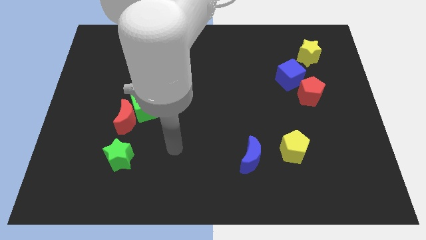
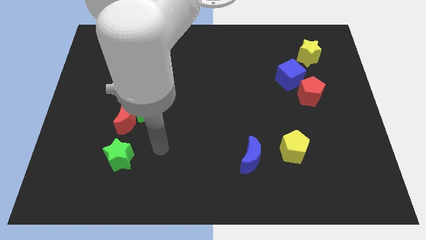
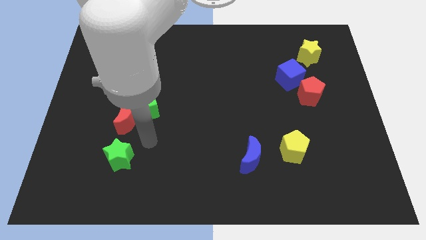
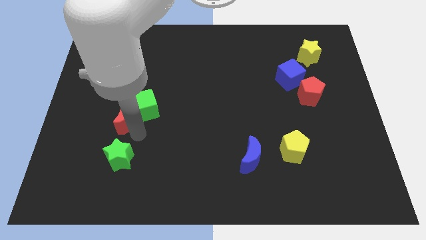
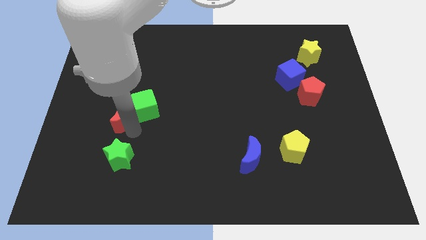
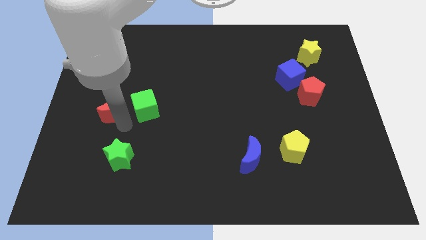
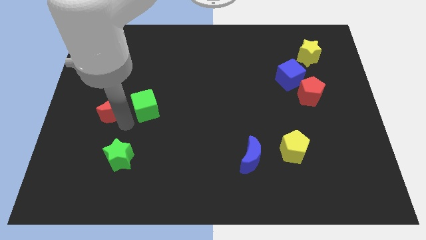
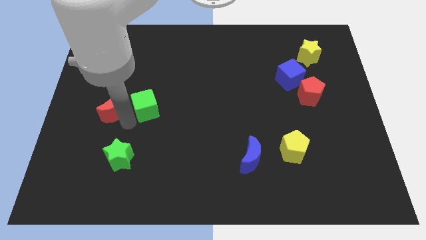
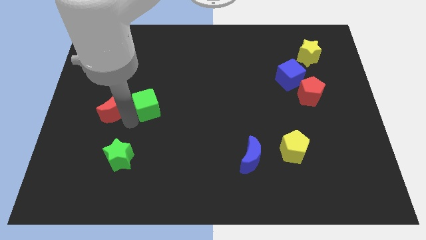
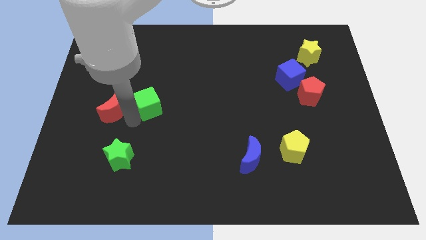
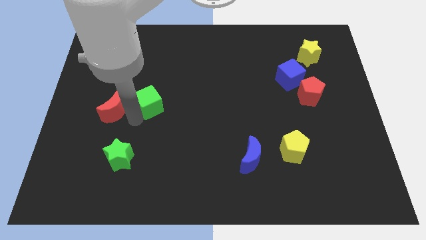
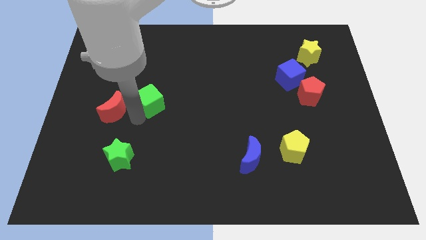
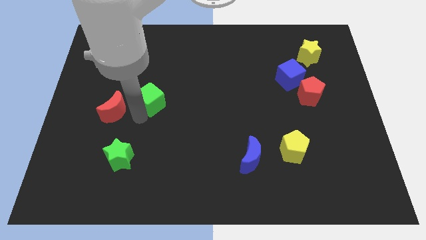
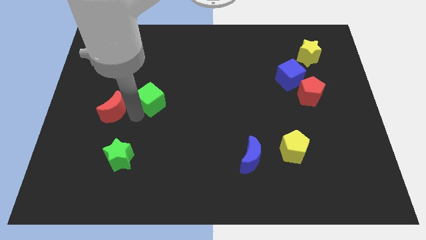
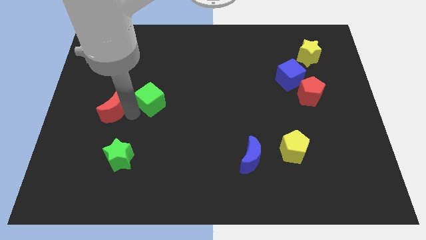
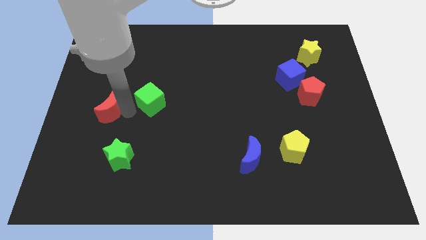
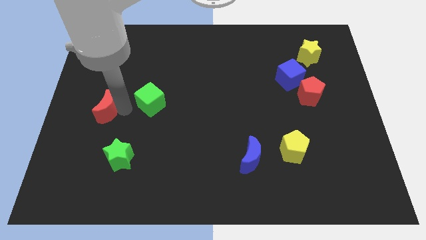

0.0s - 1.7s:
move the green cube away from the red moon

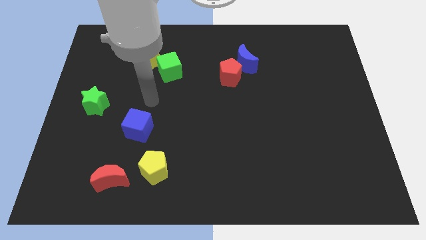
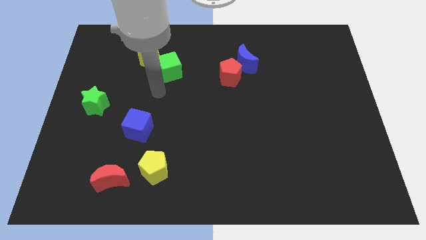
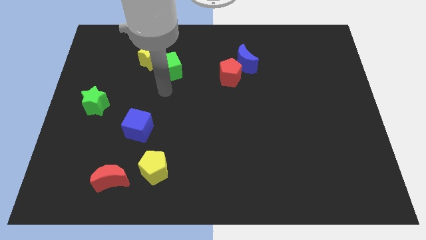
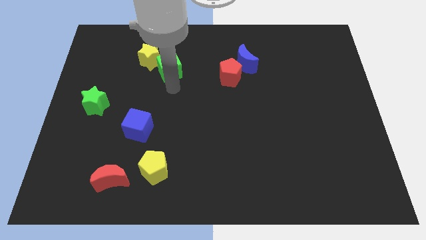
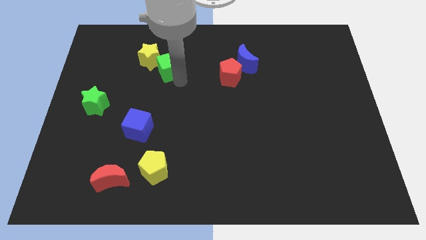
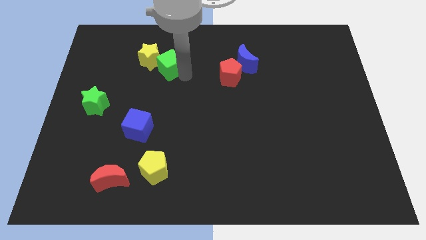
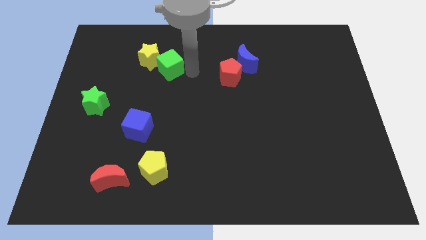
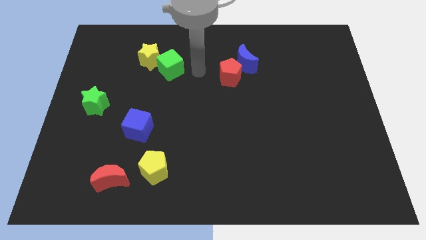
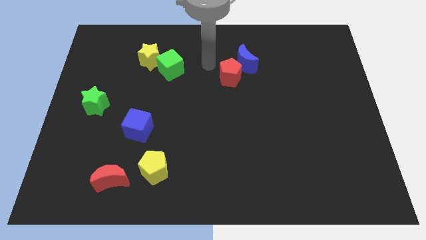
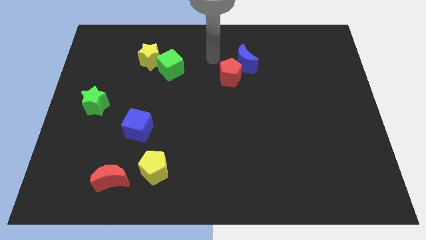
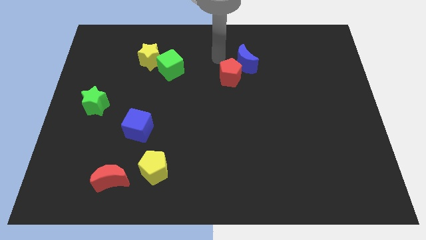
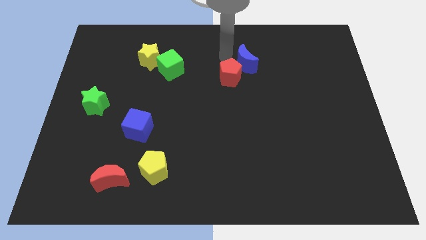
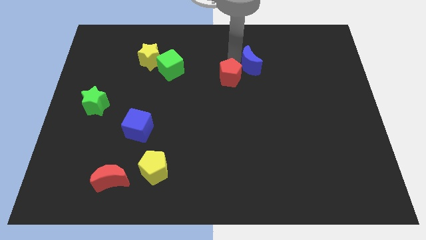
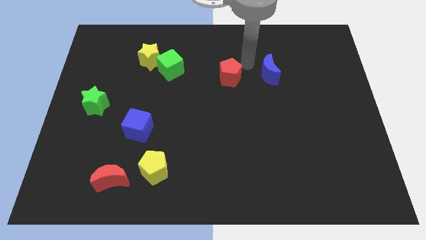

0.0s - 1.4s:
separate the red pentagon from the blue moon

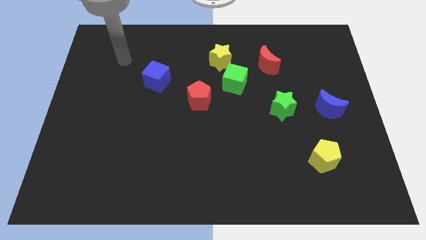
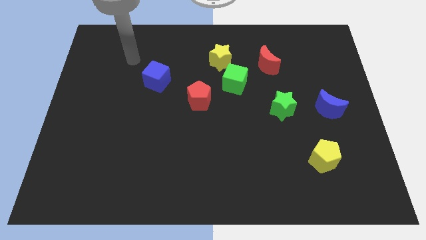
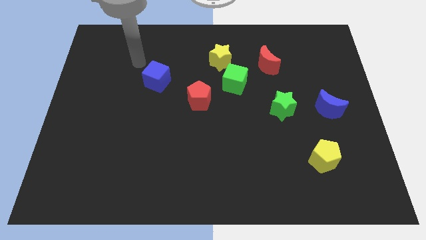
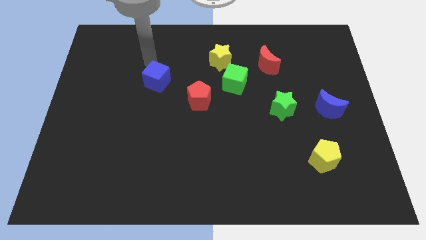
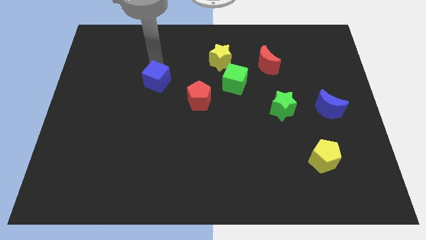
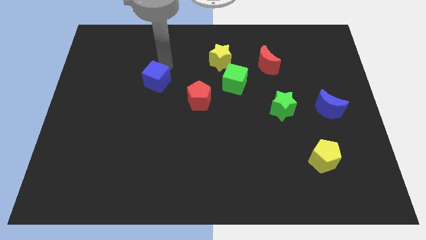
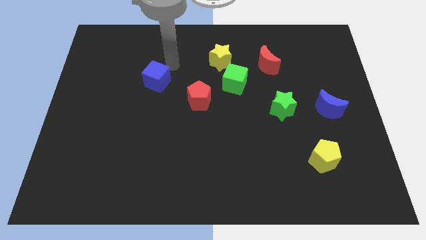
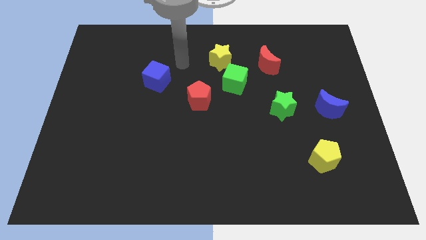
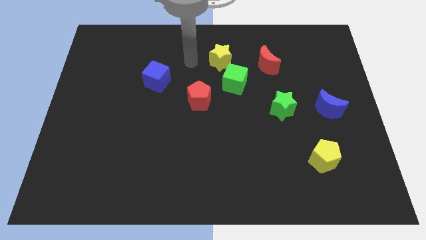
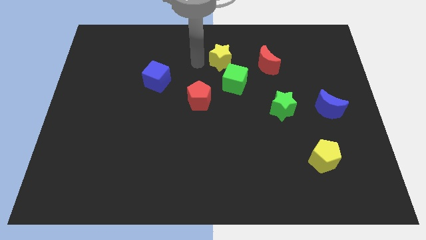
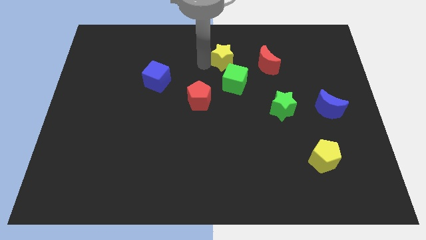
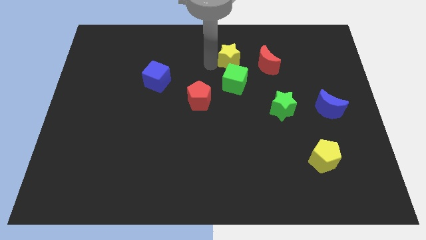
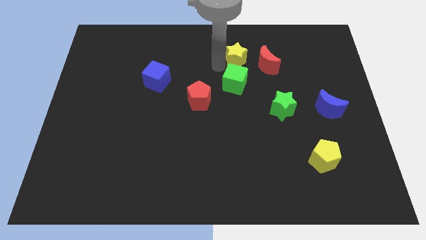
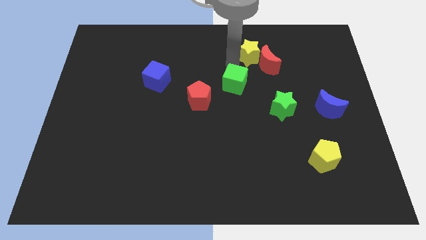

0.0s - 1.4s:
pull the green cube apart from the yellow star

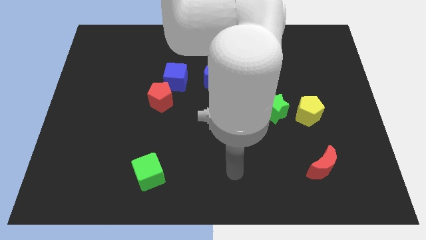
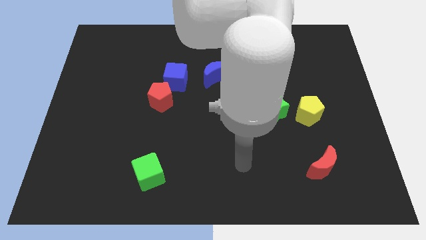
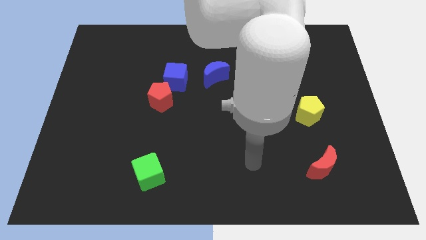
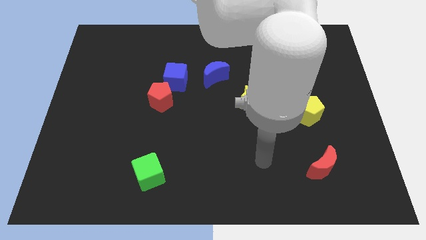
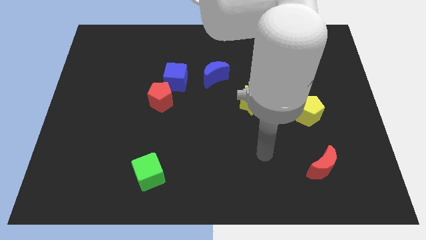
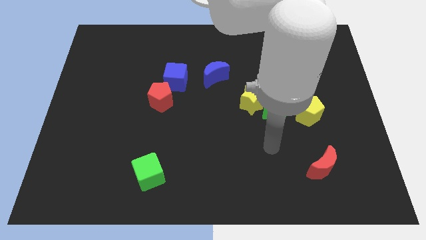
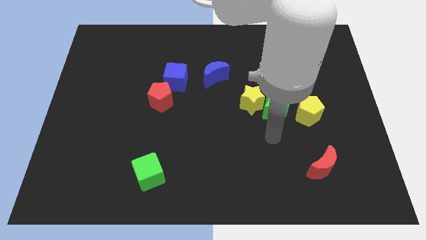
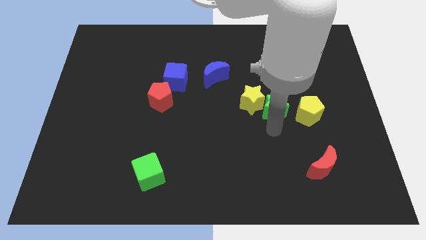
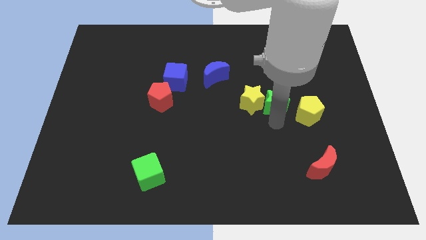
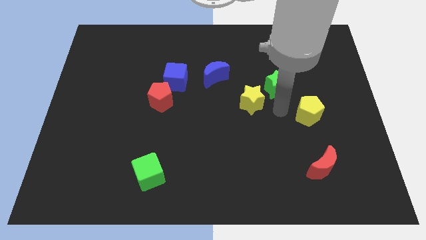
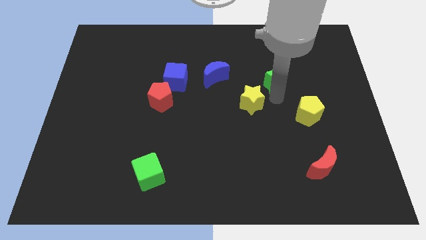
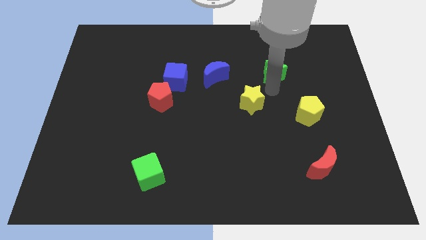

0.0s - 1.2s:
pull the yellow star apart from the green star

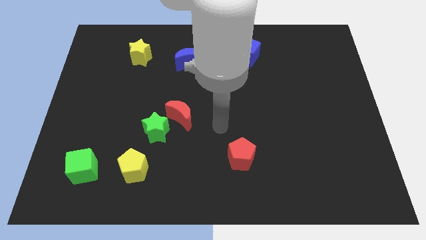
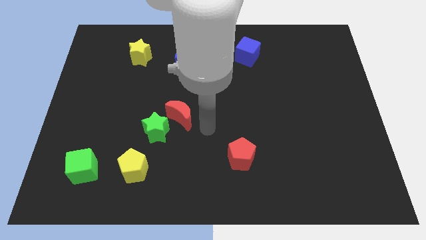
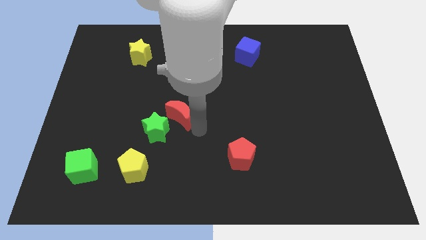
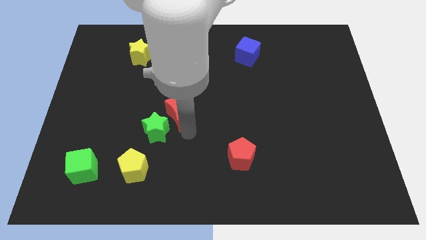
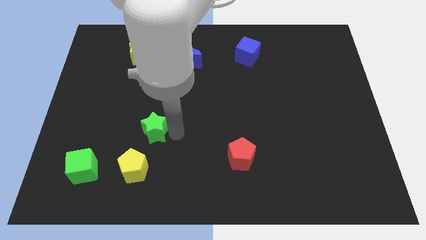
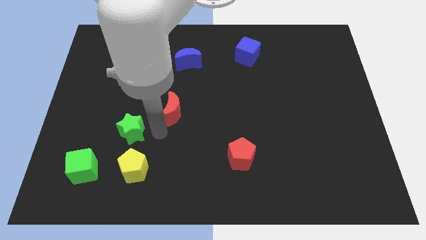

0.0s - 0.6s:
move the red moon away from the green star

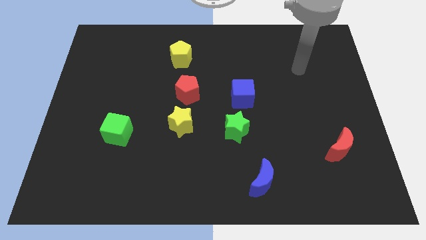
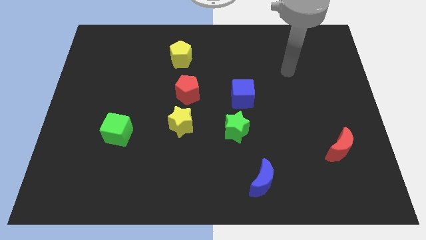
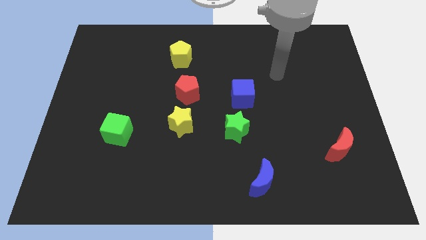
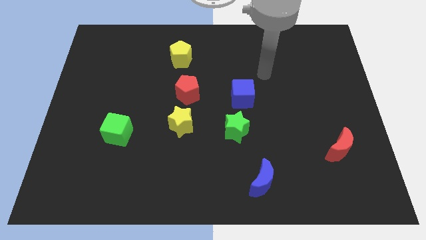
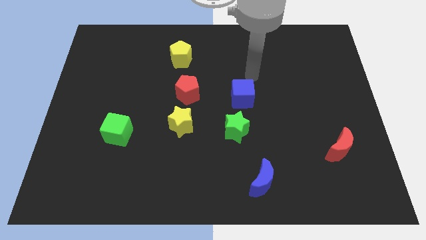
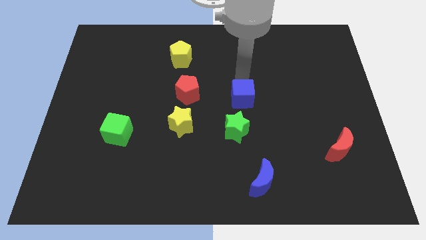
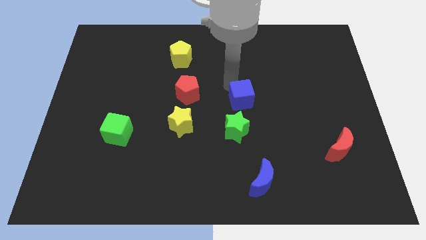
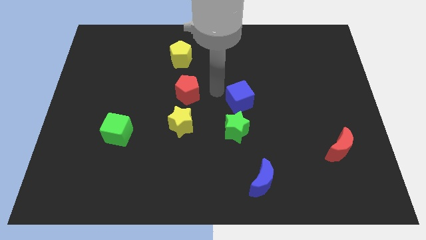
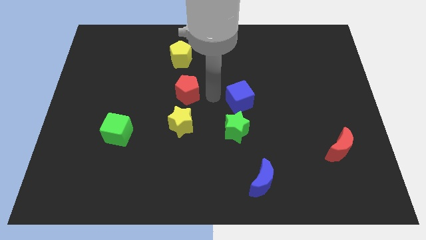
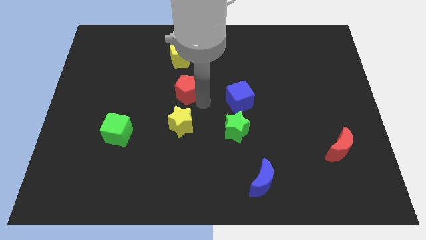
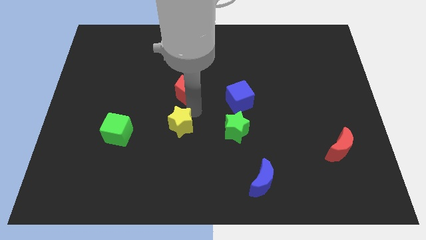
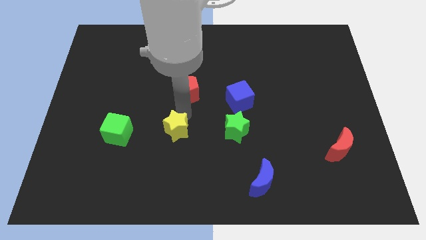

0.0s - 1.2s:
move the red pentagon away from the yellow star

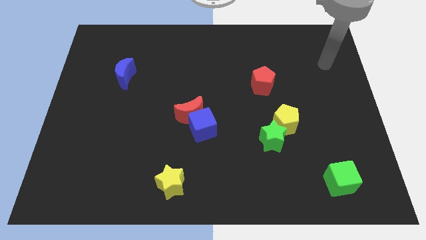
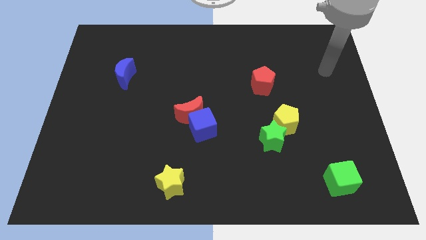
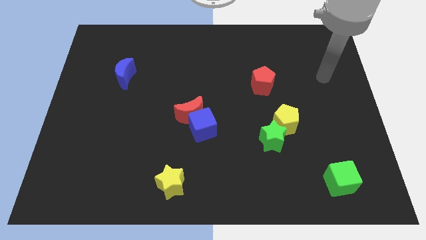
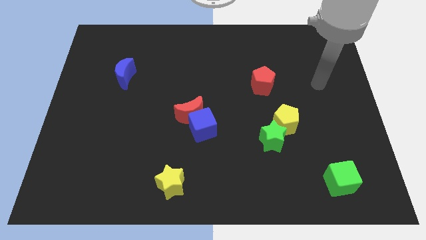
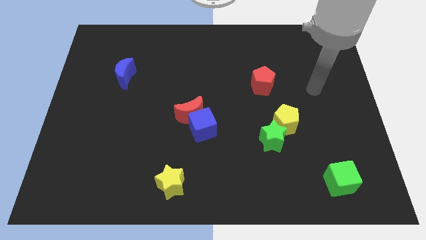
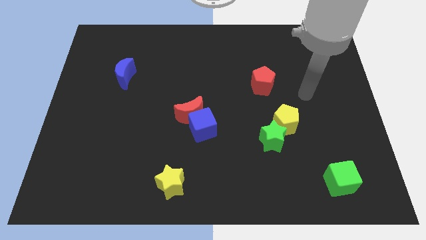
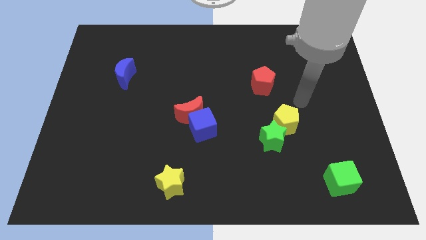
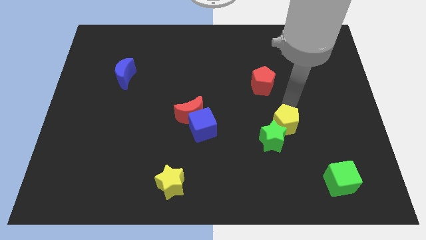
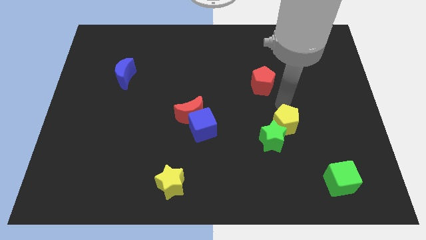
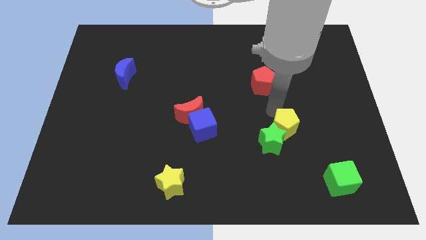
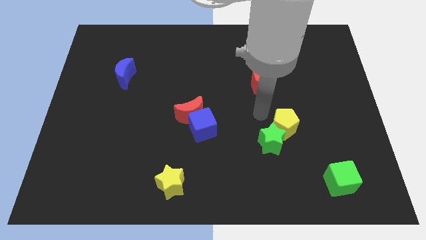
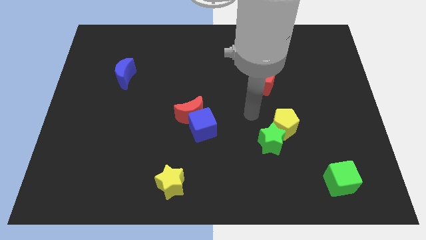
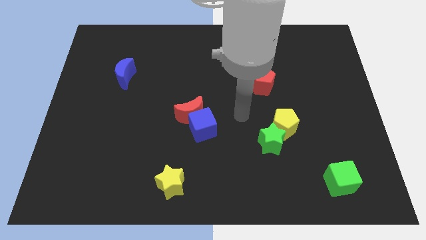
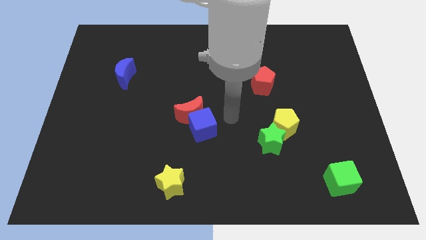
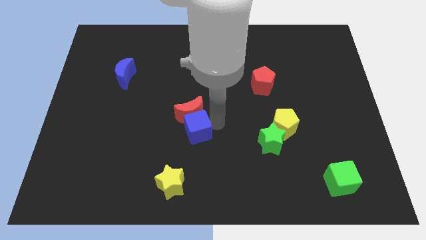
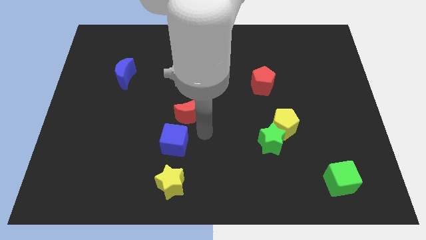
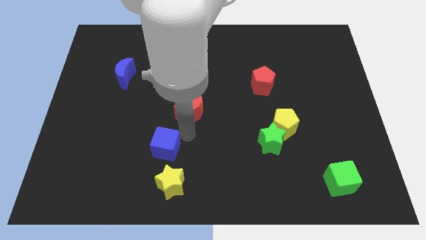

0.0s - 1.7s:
move the red moon away from the blue cube
